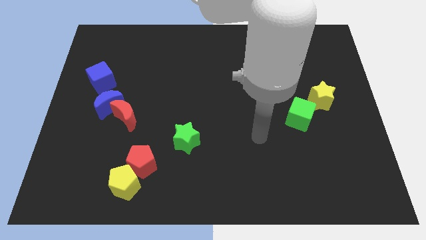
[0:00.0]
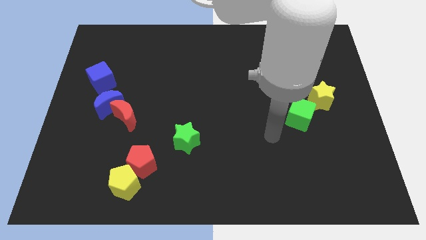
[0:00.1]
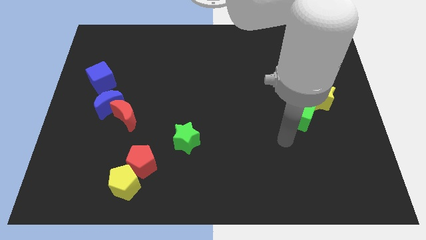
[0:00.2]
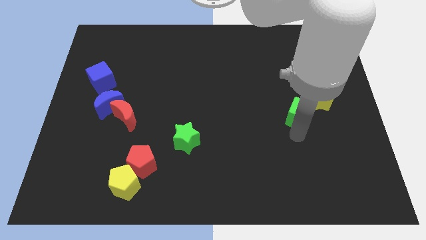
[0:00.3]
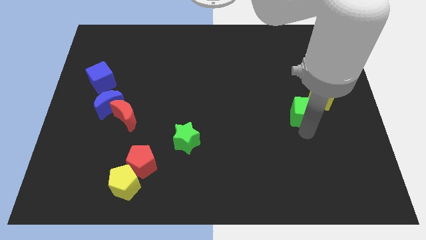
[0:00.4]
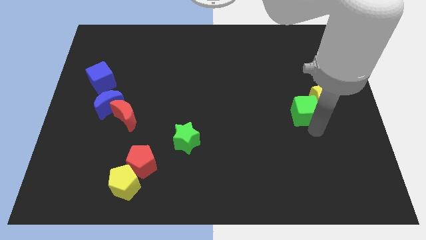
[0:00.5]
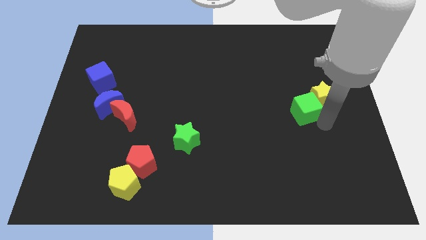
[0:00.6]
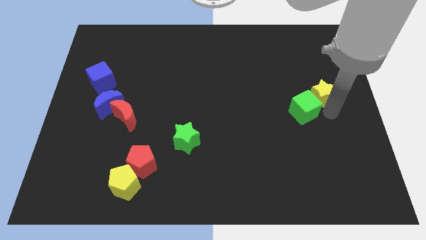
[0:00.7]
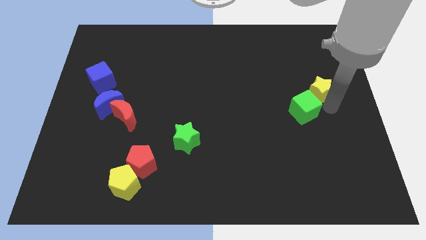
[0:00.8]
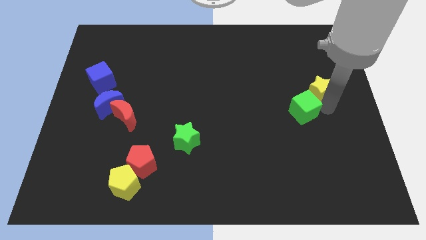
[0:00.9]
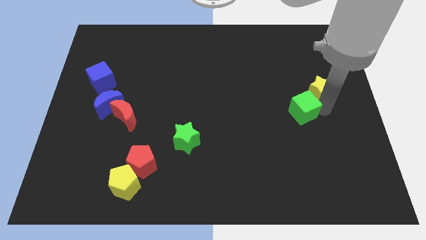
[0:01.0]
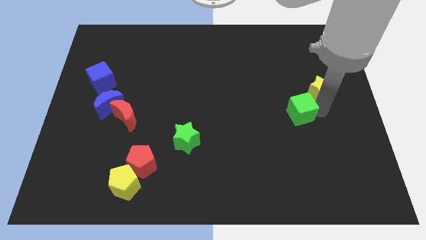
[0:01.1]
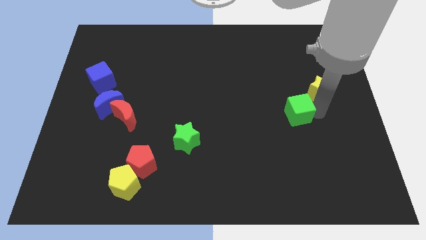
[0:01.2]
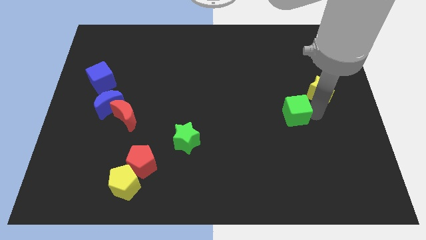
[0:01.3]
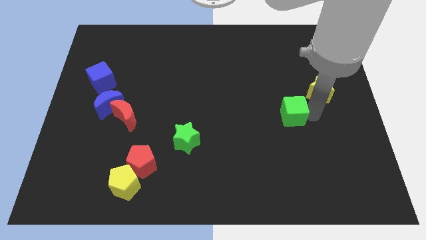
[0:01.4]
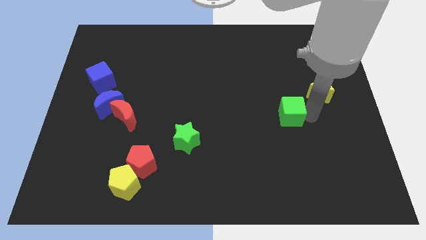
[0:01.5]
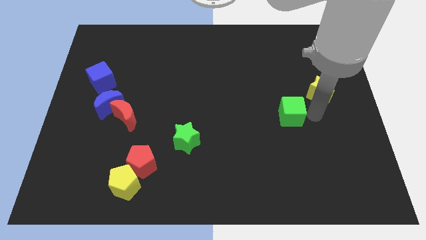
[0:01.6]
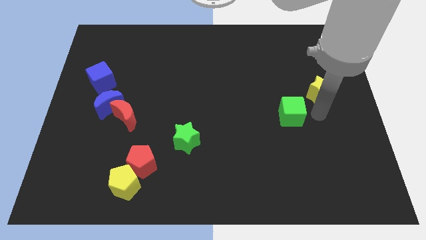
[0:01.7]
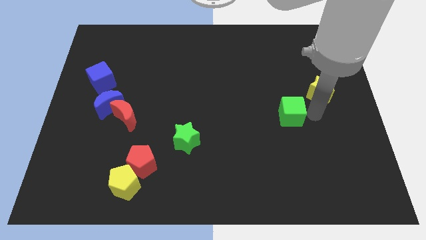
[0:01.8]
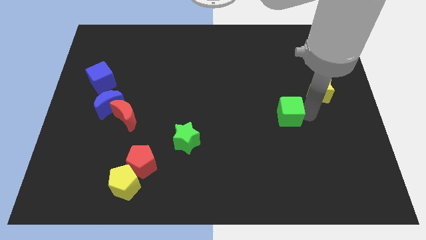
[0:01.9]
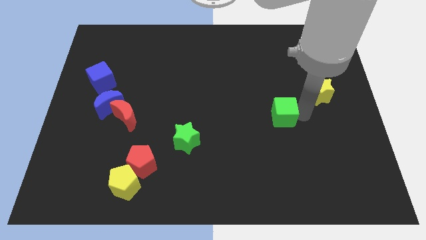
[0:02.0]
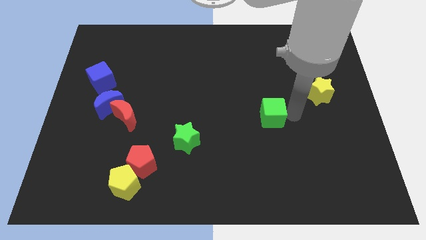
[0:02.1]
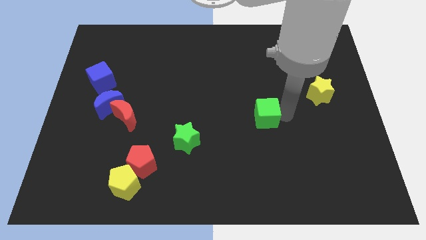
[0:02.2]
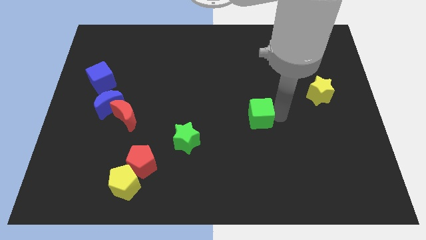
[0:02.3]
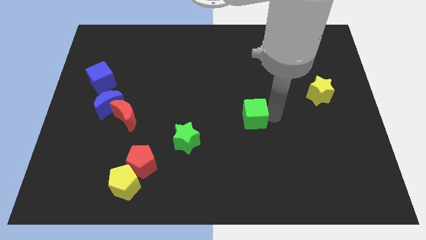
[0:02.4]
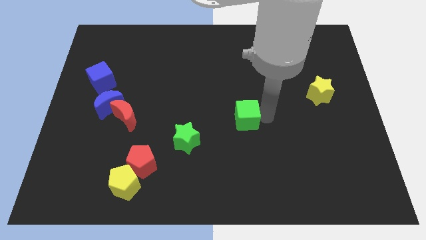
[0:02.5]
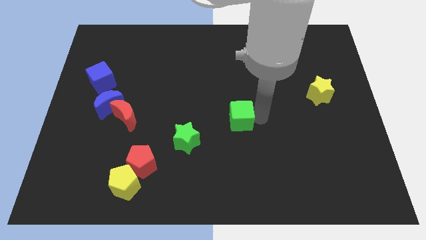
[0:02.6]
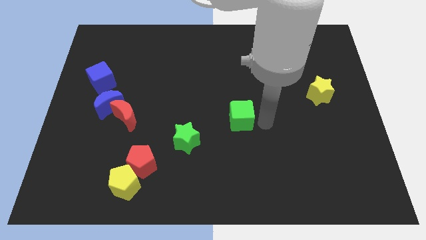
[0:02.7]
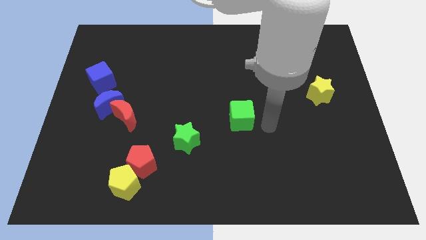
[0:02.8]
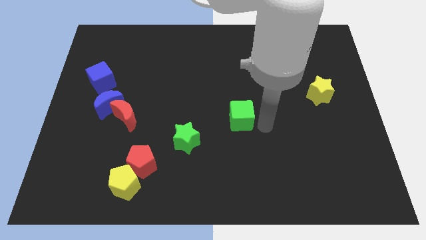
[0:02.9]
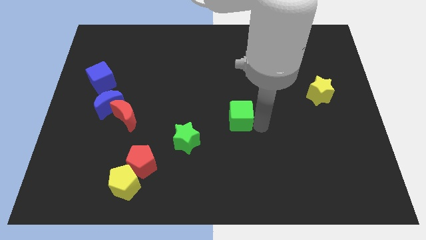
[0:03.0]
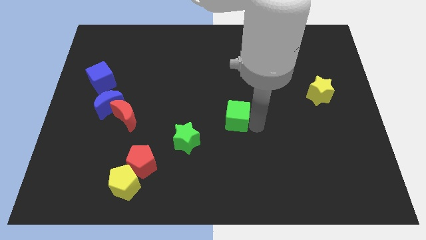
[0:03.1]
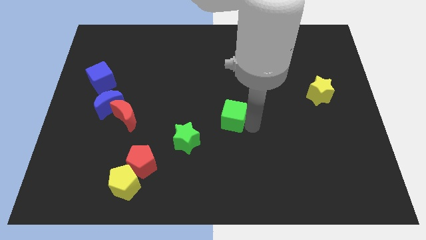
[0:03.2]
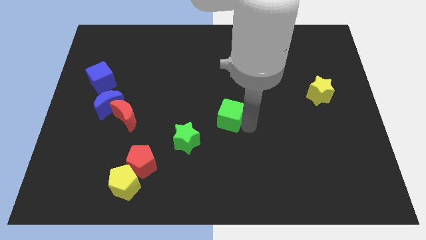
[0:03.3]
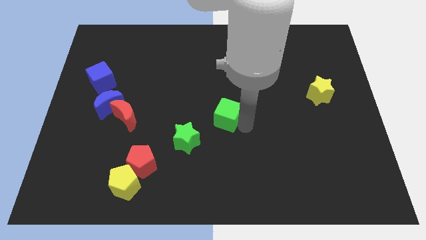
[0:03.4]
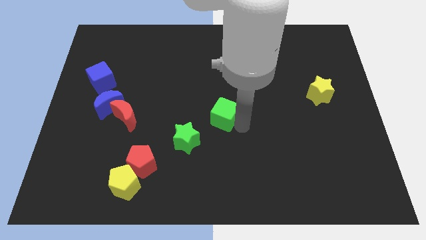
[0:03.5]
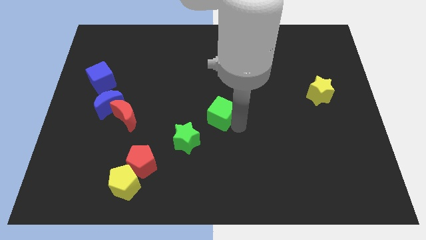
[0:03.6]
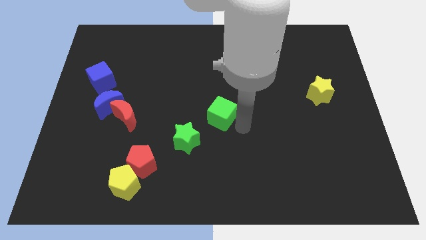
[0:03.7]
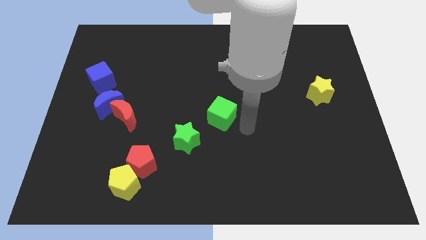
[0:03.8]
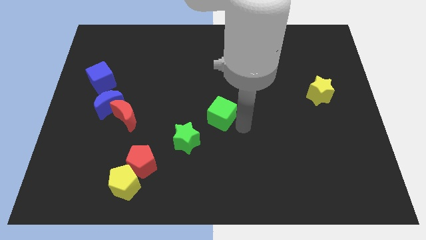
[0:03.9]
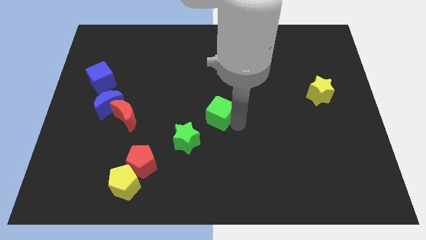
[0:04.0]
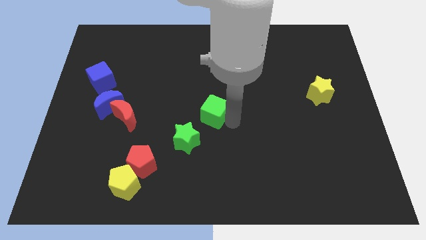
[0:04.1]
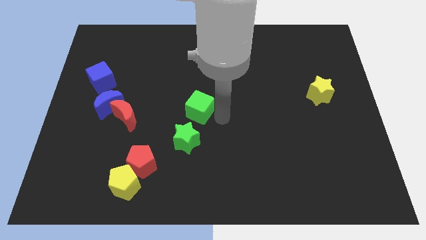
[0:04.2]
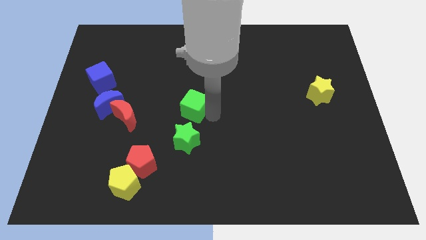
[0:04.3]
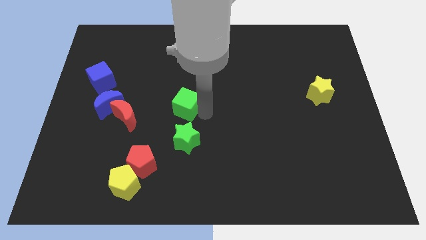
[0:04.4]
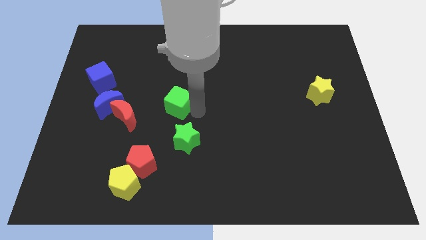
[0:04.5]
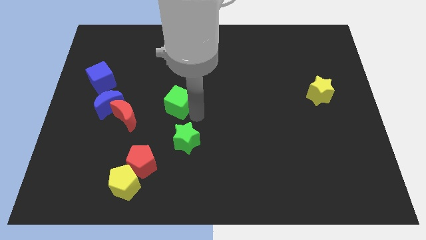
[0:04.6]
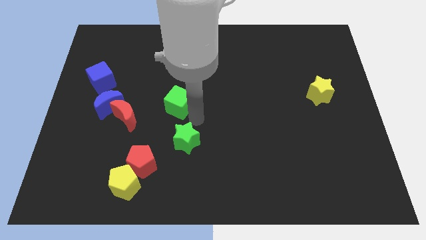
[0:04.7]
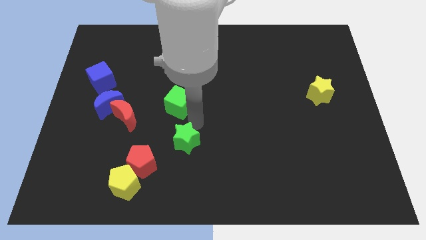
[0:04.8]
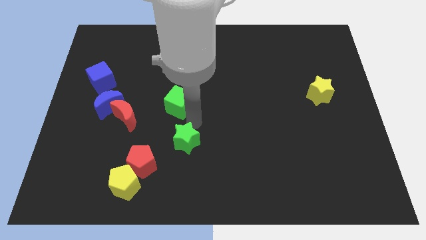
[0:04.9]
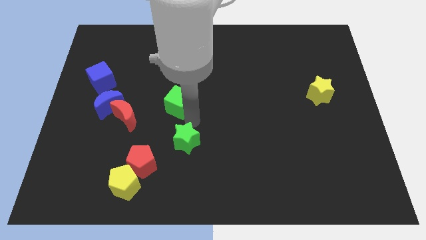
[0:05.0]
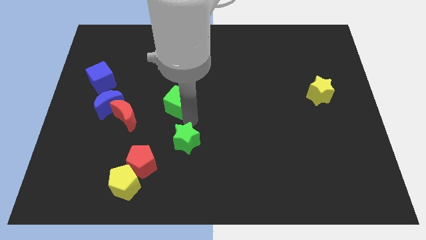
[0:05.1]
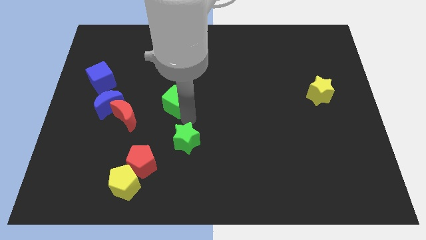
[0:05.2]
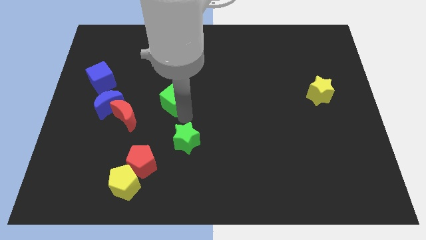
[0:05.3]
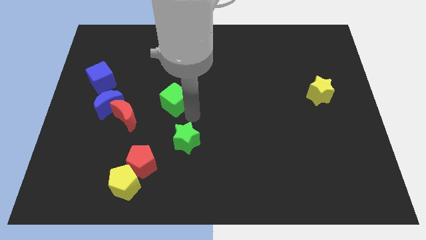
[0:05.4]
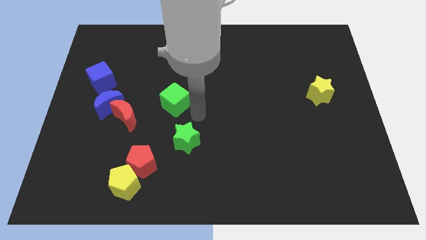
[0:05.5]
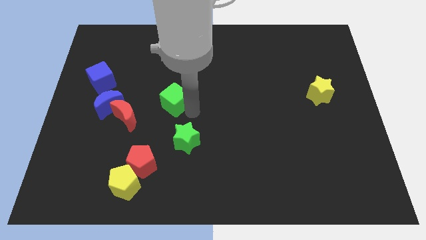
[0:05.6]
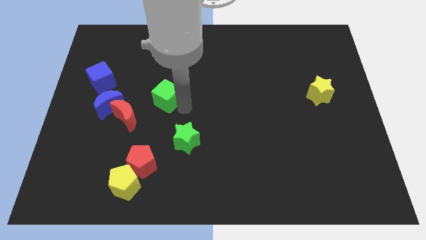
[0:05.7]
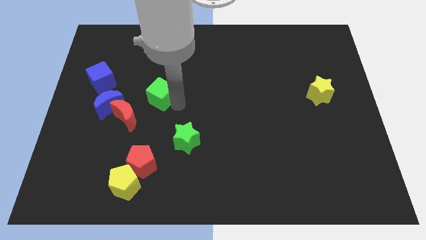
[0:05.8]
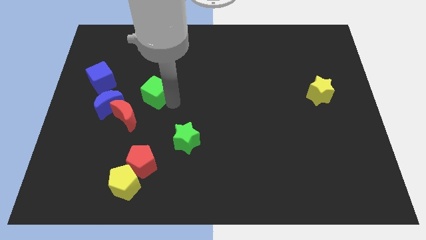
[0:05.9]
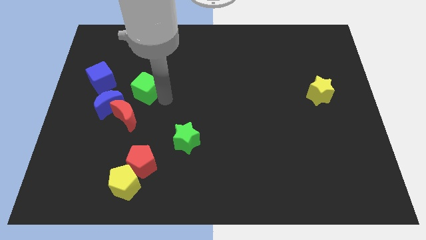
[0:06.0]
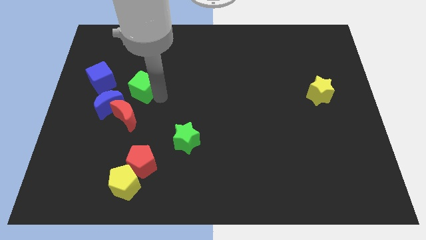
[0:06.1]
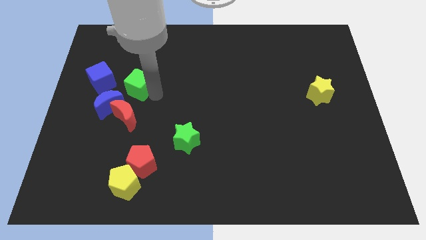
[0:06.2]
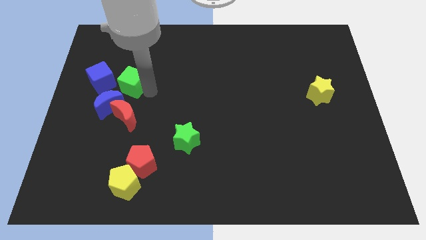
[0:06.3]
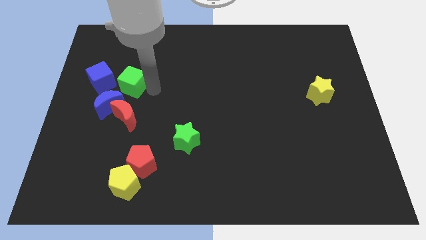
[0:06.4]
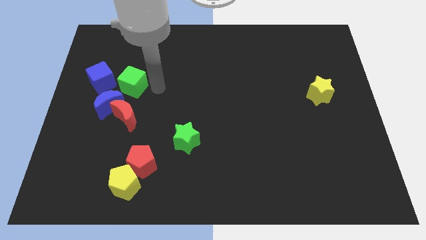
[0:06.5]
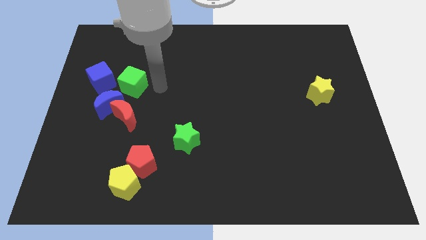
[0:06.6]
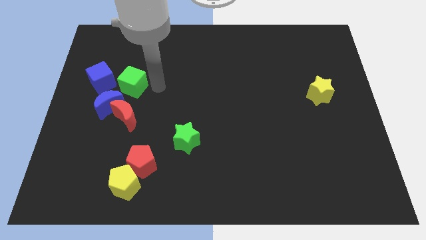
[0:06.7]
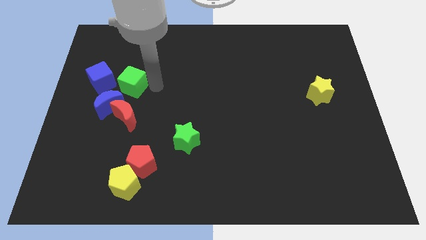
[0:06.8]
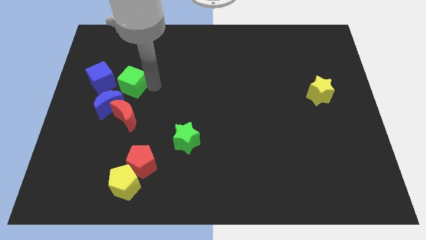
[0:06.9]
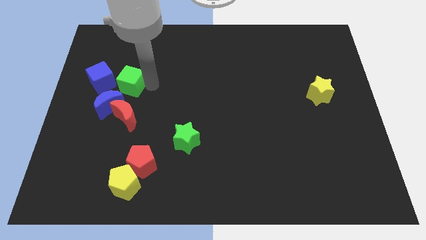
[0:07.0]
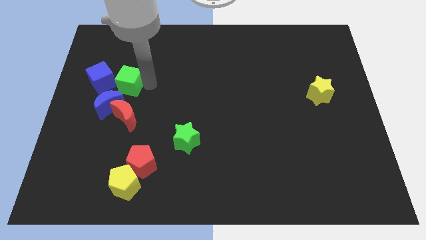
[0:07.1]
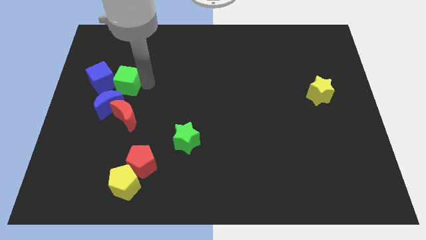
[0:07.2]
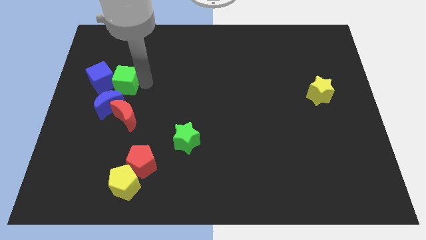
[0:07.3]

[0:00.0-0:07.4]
push the green cube to the blue cube
